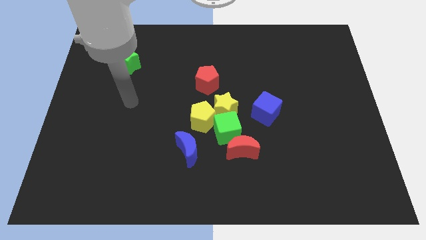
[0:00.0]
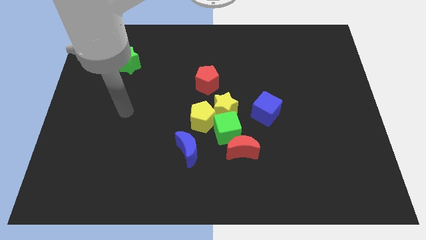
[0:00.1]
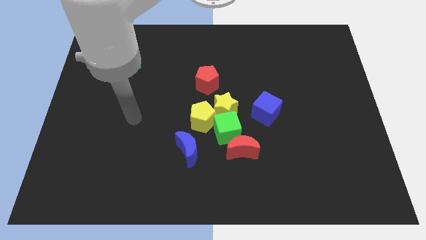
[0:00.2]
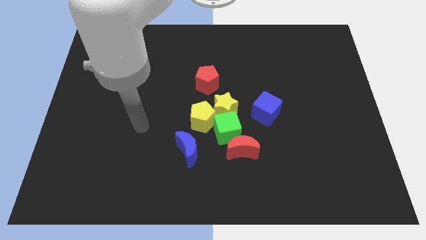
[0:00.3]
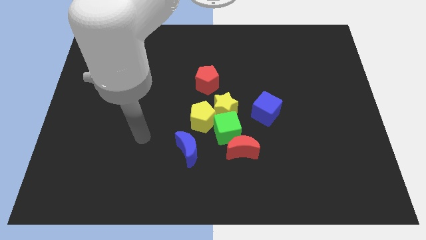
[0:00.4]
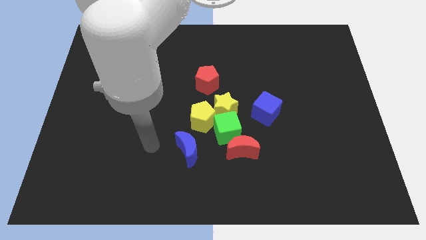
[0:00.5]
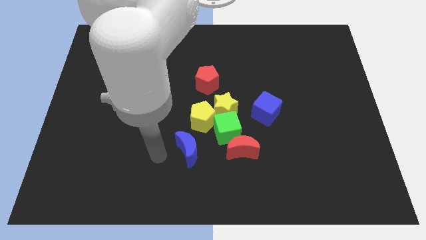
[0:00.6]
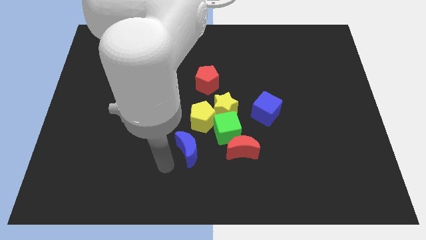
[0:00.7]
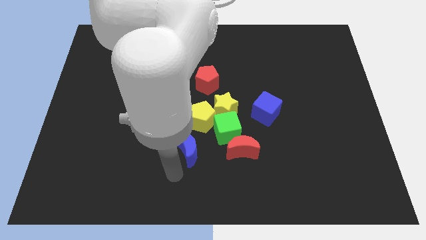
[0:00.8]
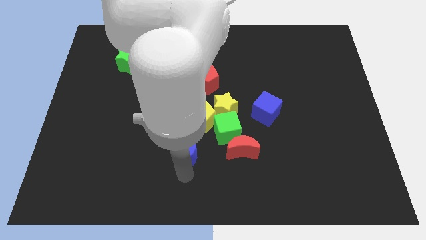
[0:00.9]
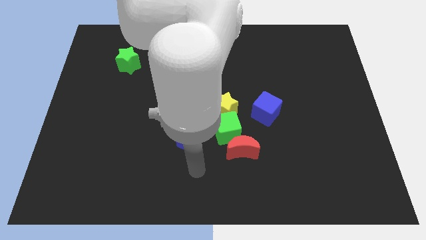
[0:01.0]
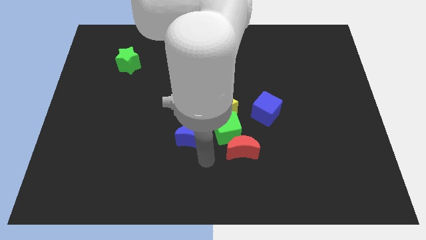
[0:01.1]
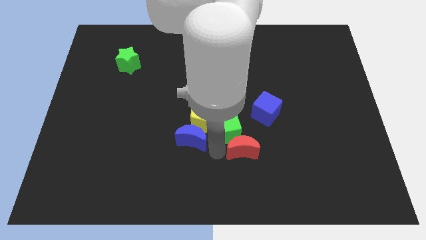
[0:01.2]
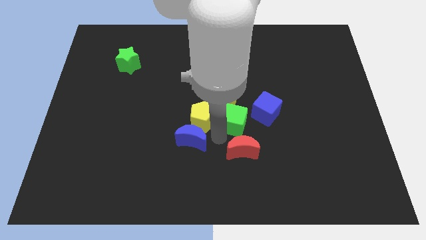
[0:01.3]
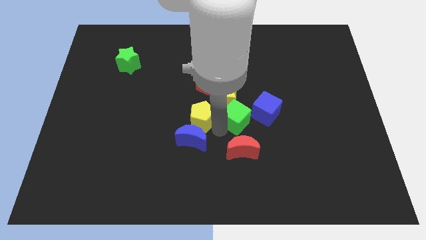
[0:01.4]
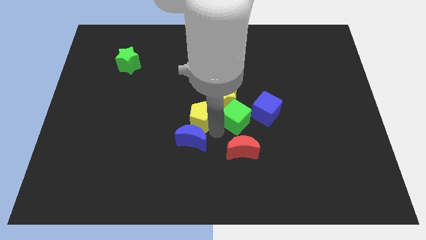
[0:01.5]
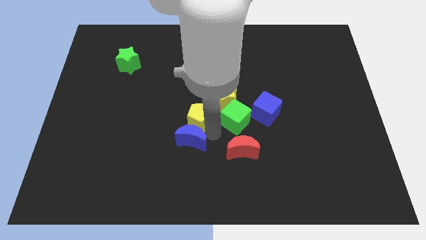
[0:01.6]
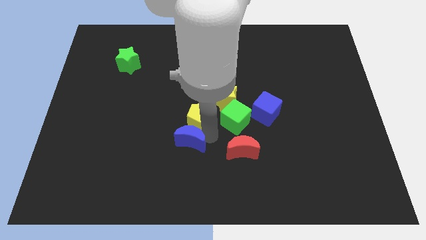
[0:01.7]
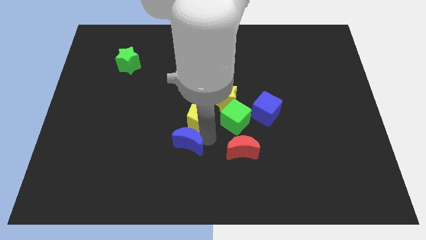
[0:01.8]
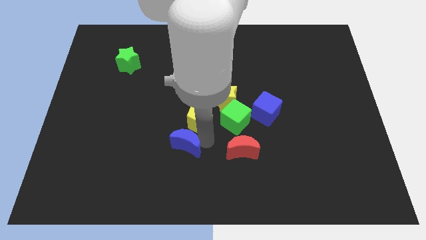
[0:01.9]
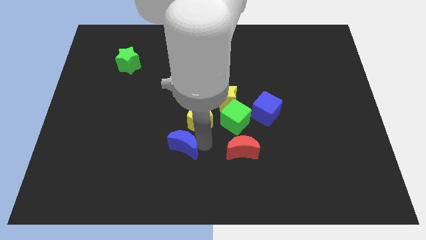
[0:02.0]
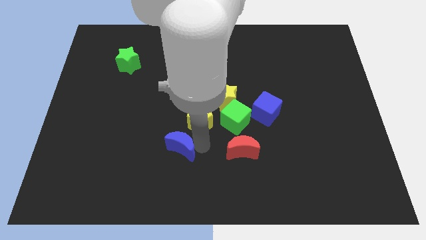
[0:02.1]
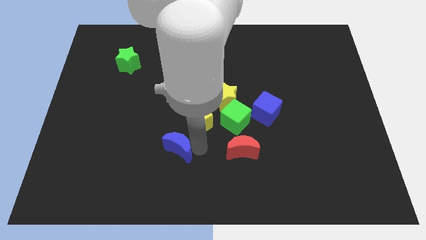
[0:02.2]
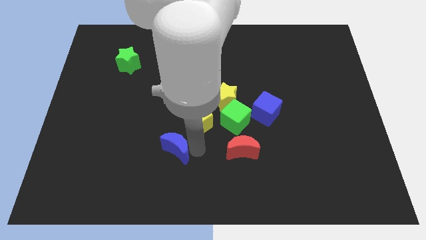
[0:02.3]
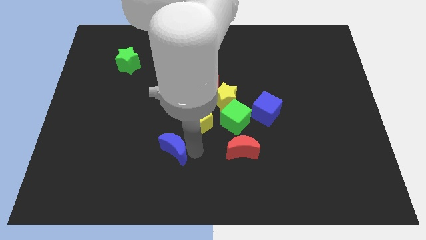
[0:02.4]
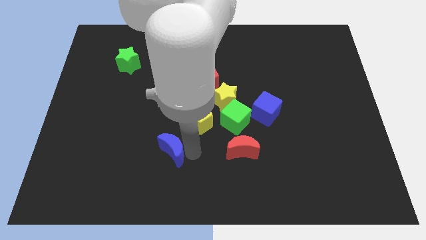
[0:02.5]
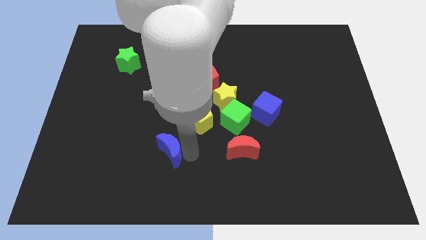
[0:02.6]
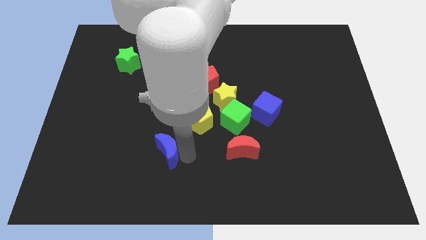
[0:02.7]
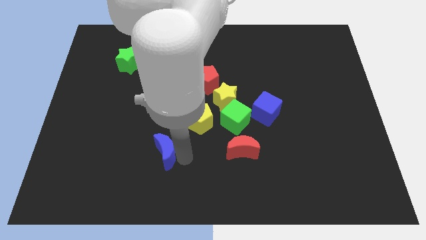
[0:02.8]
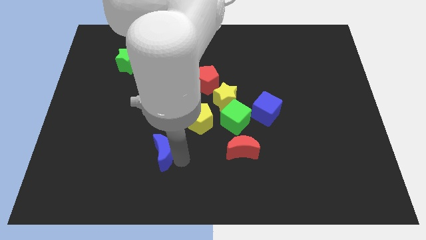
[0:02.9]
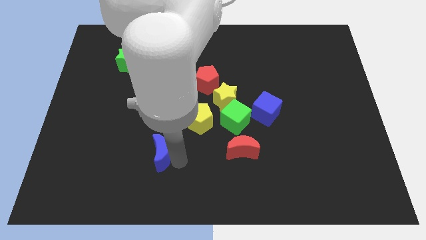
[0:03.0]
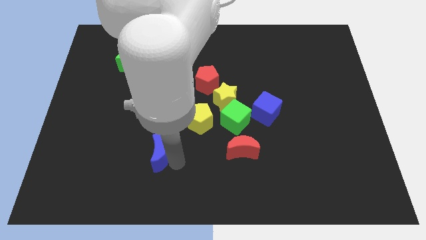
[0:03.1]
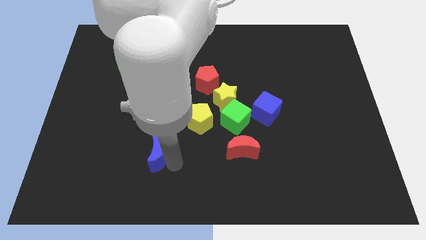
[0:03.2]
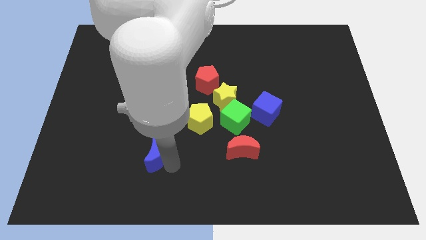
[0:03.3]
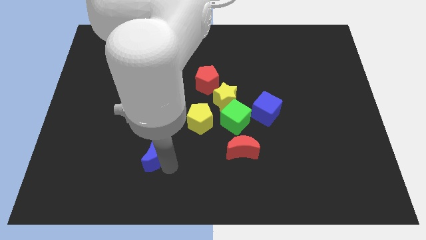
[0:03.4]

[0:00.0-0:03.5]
slide the blue moon to the left a little bit

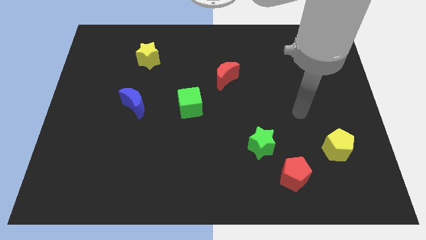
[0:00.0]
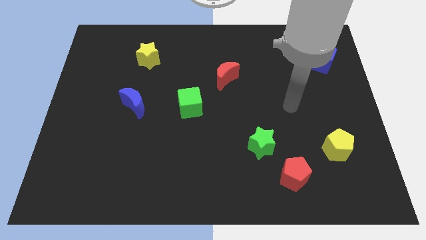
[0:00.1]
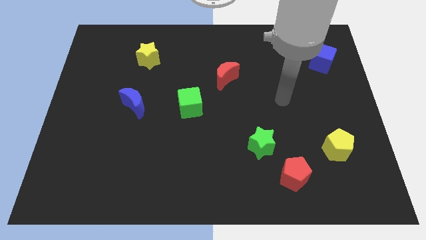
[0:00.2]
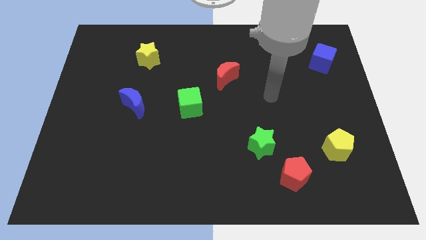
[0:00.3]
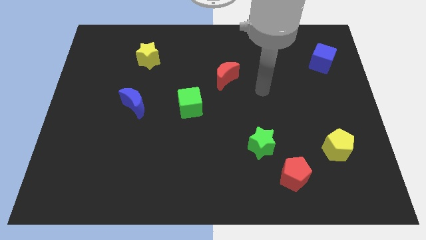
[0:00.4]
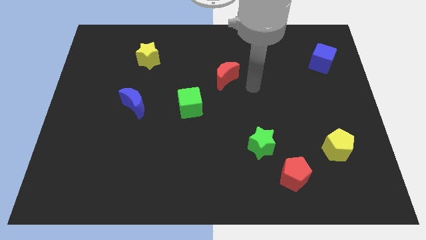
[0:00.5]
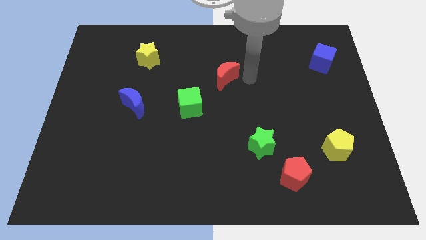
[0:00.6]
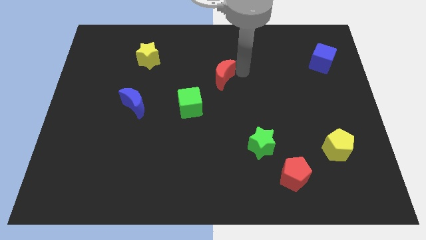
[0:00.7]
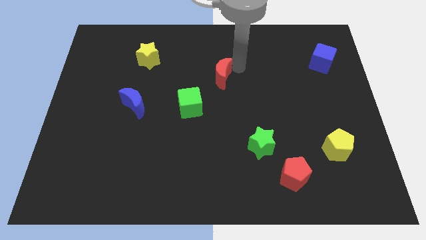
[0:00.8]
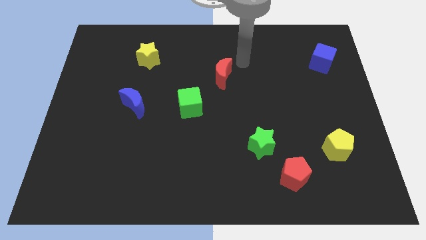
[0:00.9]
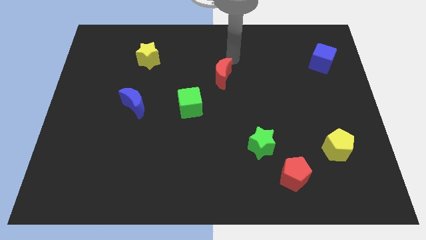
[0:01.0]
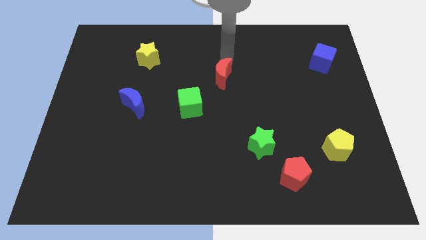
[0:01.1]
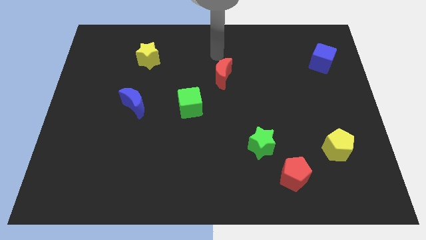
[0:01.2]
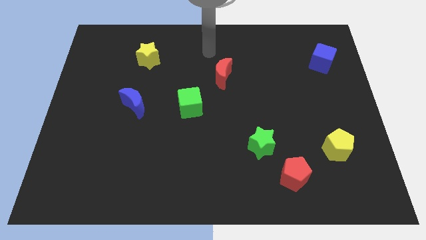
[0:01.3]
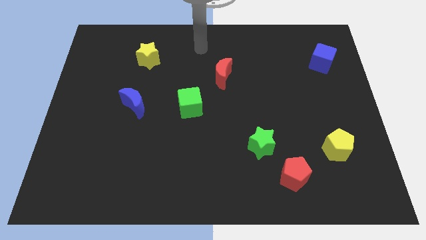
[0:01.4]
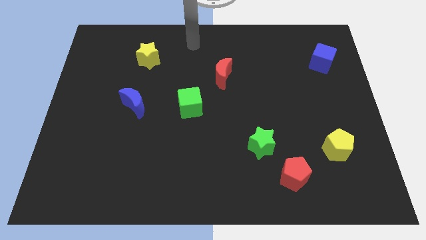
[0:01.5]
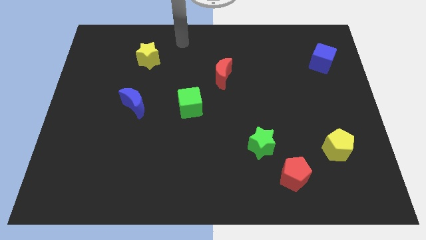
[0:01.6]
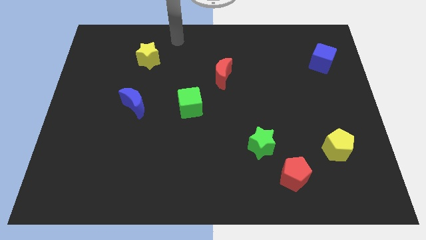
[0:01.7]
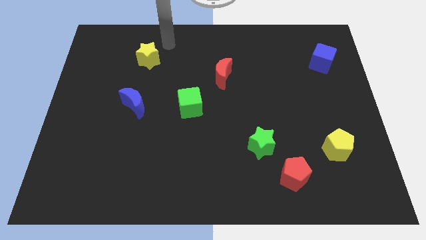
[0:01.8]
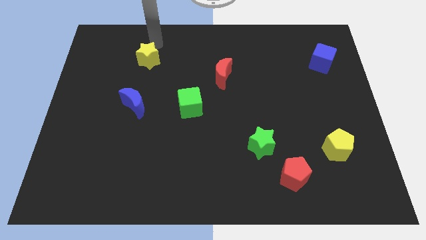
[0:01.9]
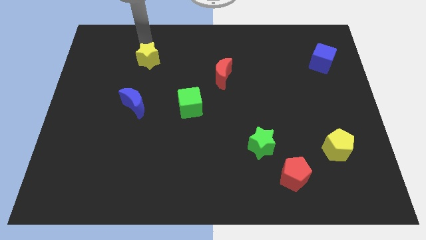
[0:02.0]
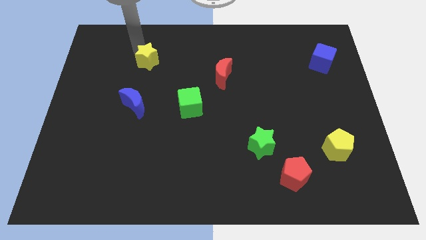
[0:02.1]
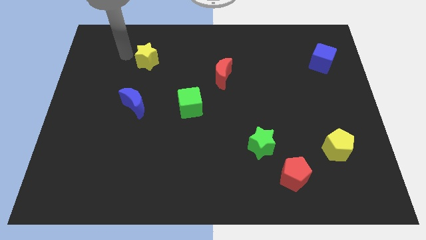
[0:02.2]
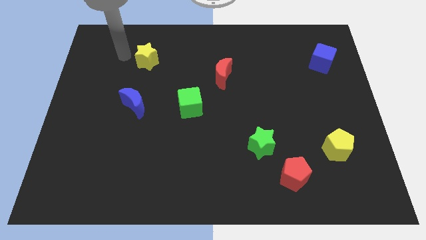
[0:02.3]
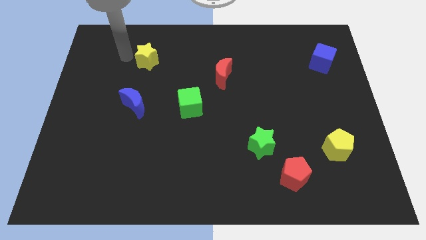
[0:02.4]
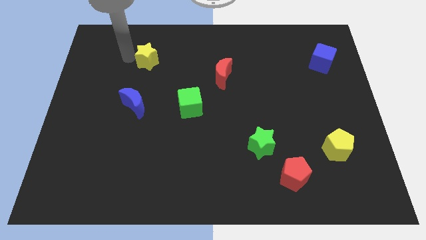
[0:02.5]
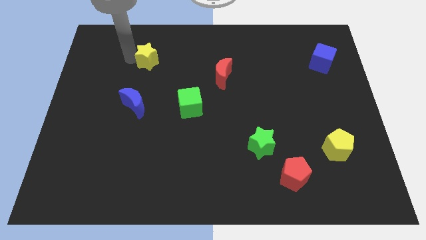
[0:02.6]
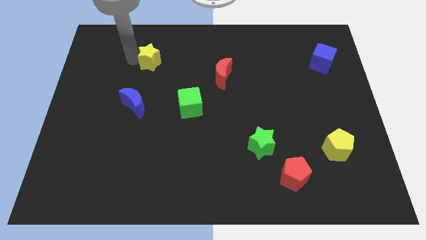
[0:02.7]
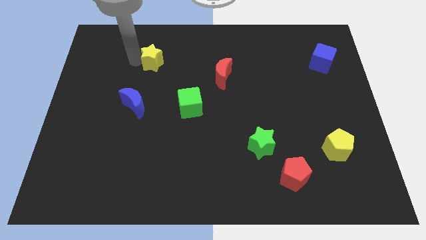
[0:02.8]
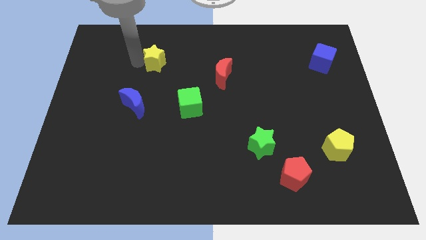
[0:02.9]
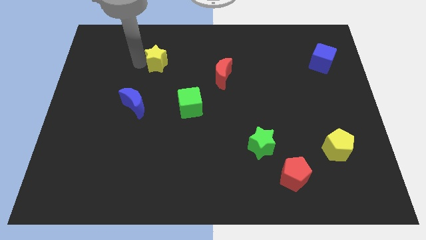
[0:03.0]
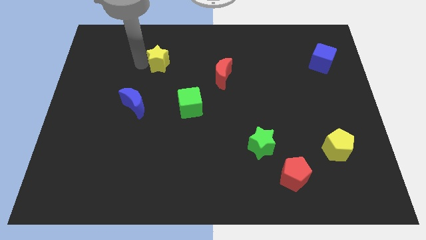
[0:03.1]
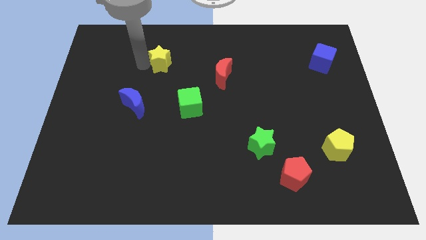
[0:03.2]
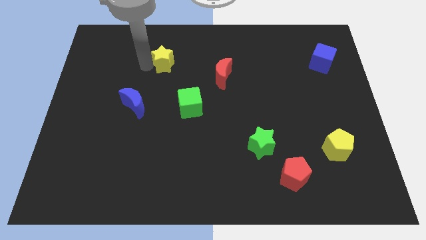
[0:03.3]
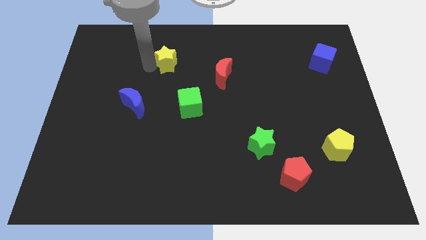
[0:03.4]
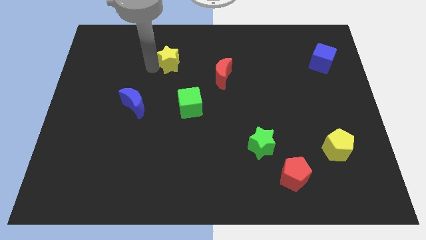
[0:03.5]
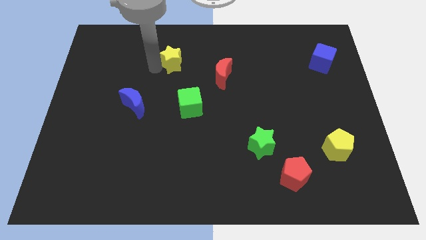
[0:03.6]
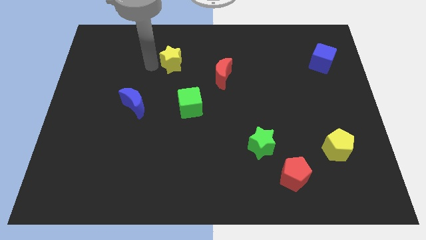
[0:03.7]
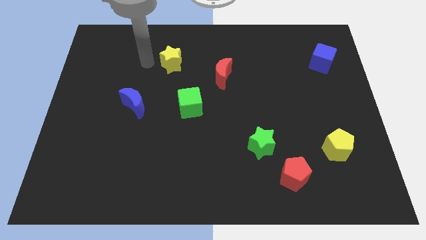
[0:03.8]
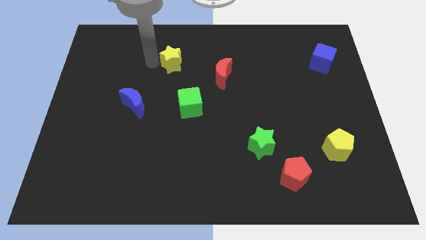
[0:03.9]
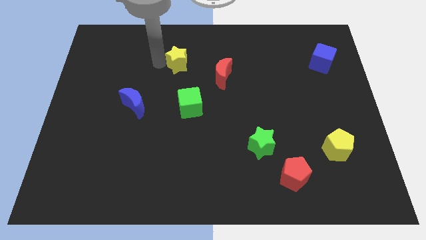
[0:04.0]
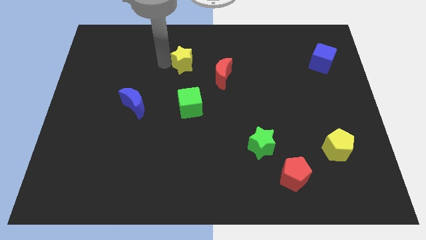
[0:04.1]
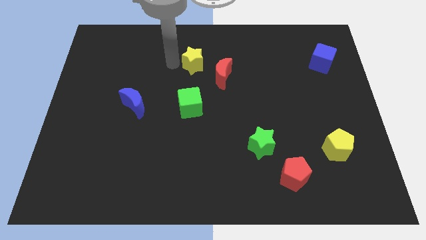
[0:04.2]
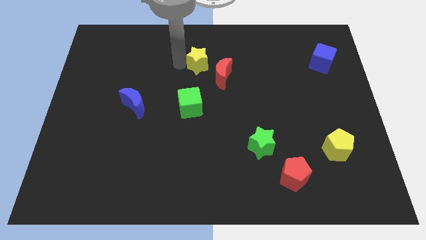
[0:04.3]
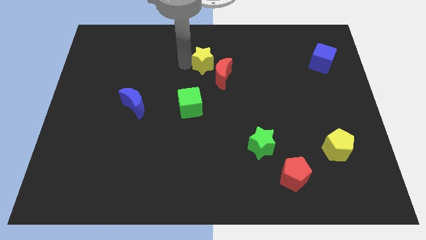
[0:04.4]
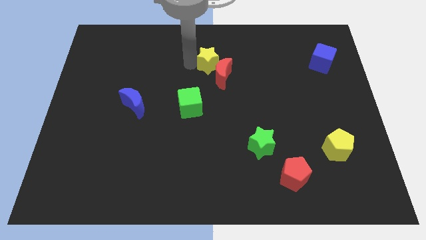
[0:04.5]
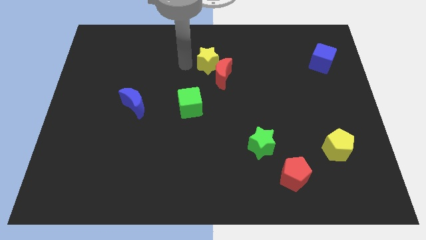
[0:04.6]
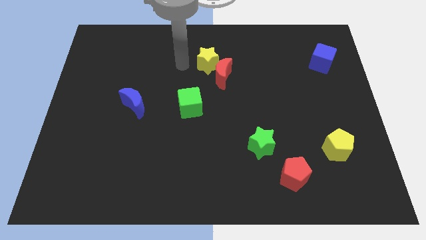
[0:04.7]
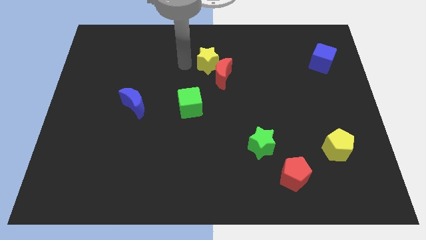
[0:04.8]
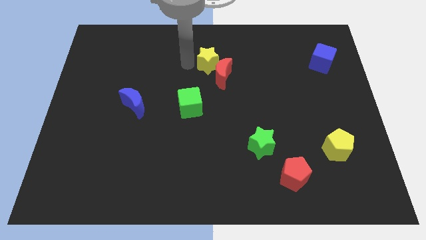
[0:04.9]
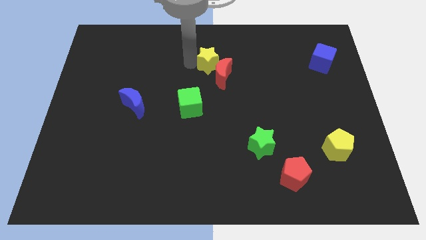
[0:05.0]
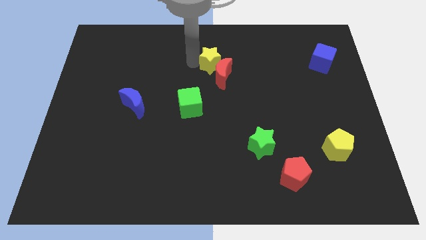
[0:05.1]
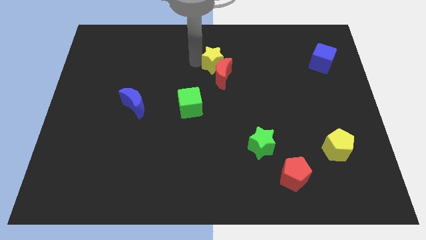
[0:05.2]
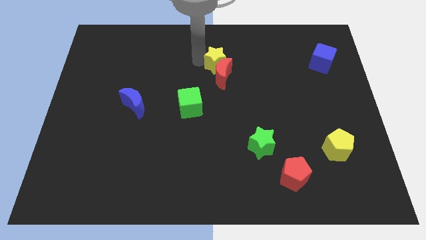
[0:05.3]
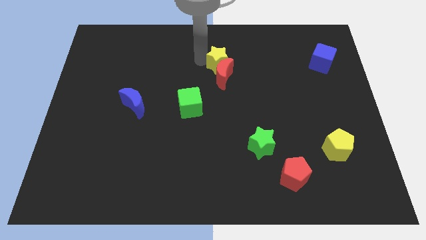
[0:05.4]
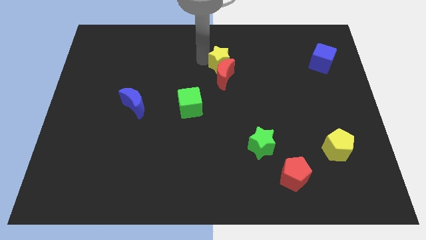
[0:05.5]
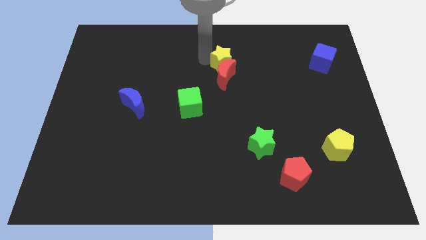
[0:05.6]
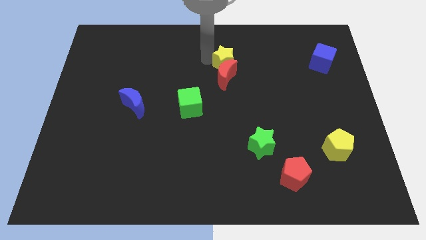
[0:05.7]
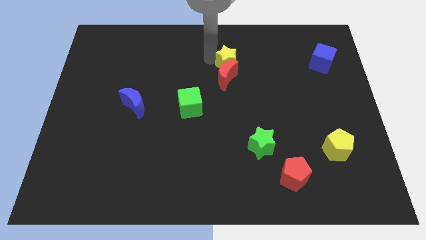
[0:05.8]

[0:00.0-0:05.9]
push the yellow star to the right
